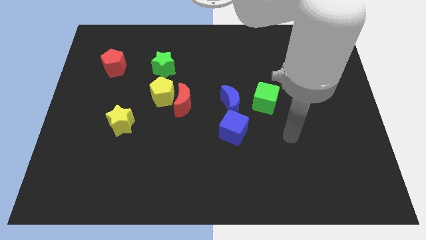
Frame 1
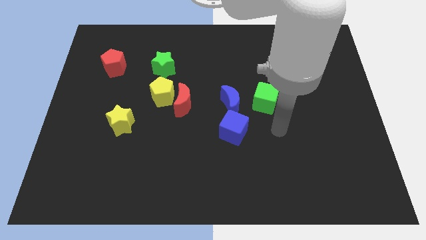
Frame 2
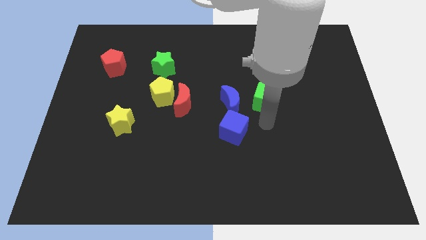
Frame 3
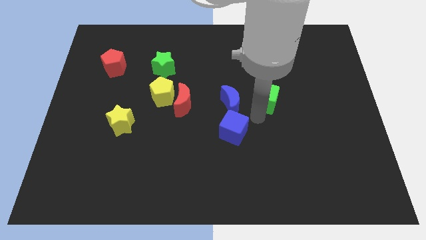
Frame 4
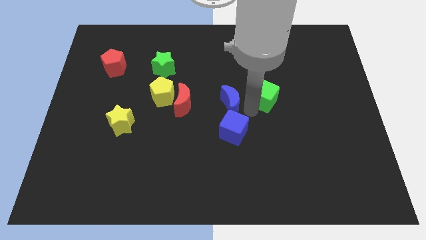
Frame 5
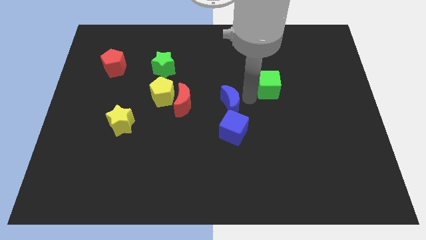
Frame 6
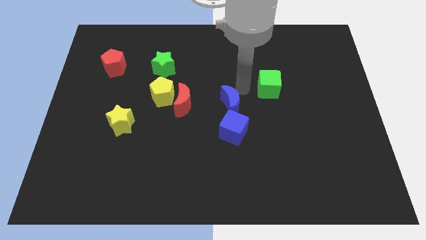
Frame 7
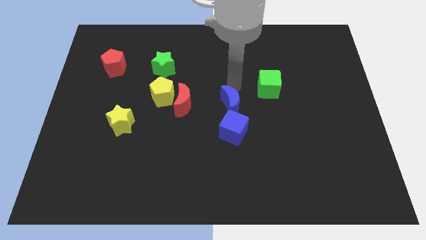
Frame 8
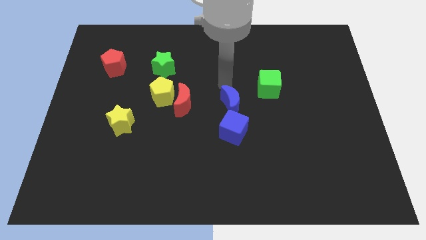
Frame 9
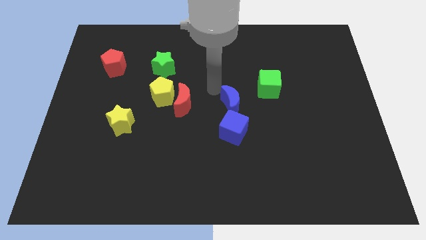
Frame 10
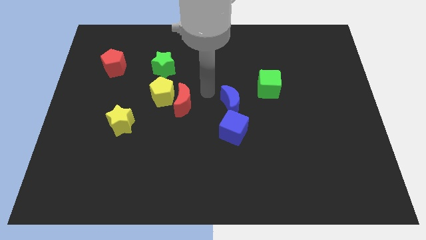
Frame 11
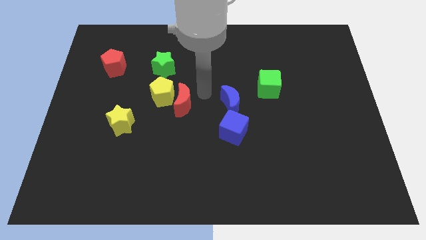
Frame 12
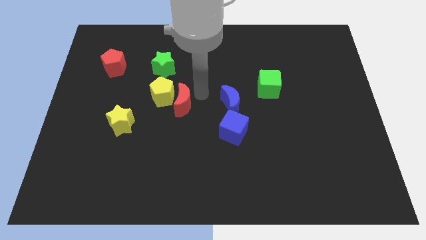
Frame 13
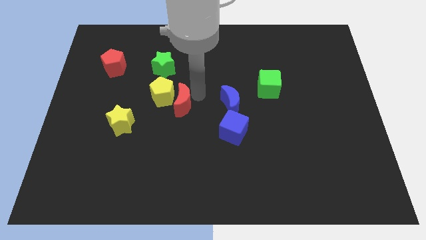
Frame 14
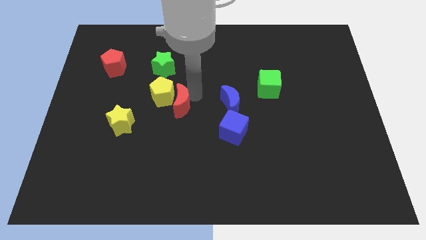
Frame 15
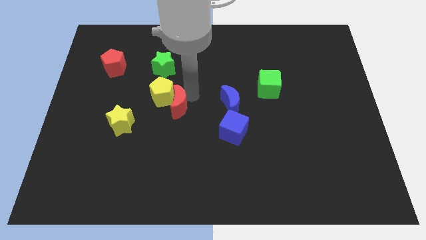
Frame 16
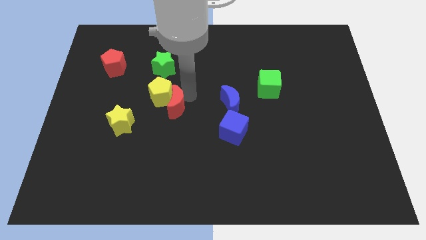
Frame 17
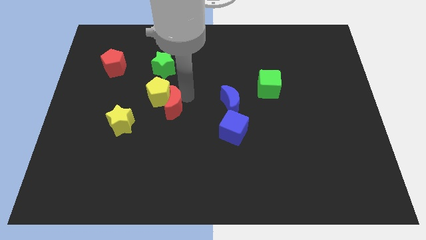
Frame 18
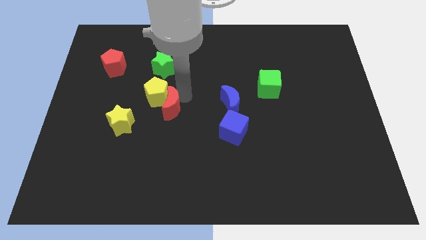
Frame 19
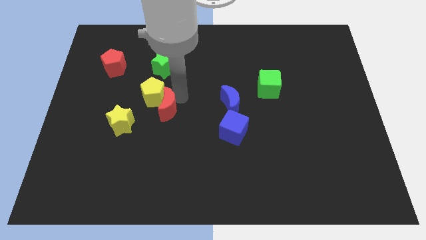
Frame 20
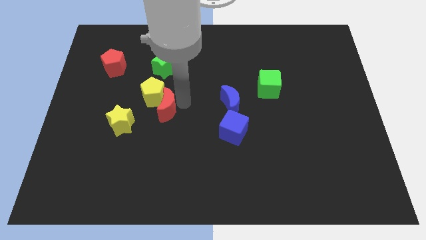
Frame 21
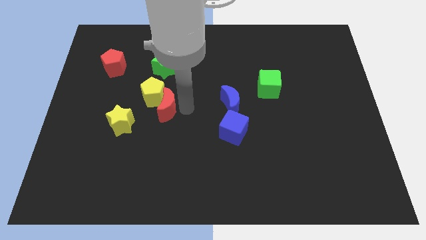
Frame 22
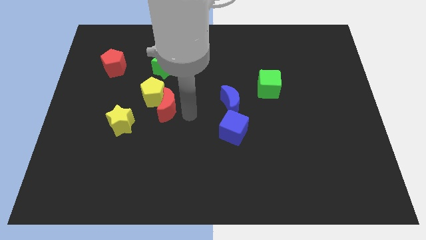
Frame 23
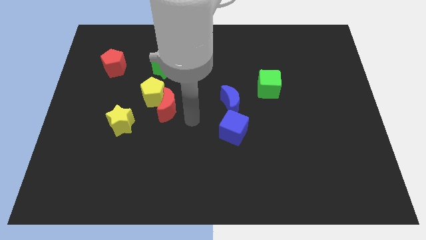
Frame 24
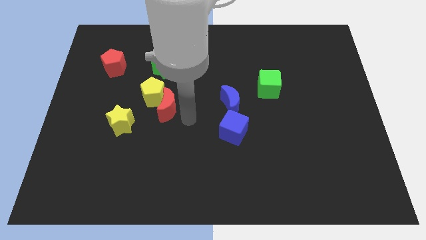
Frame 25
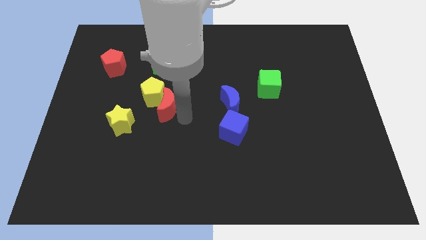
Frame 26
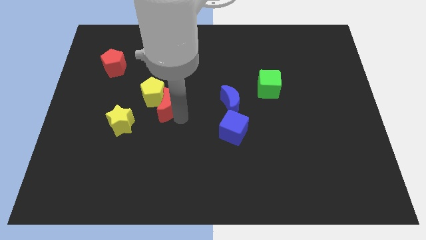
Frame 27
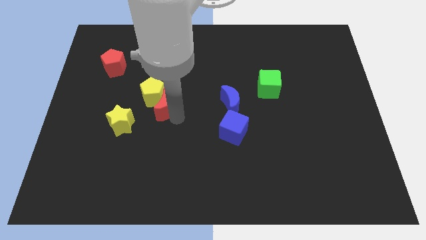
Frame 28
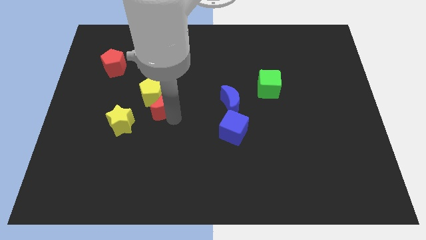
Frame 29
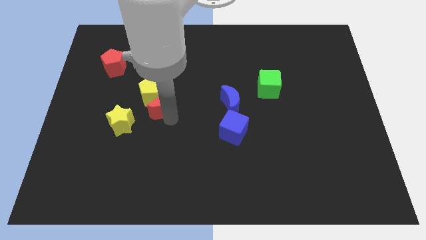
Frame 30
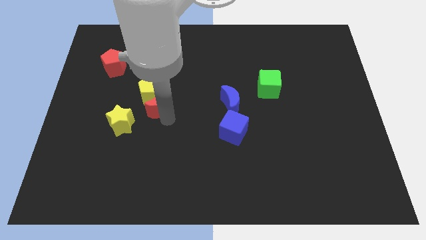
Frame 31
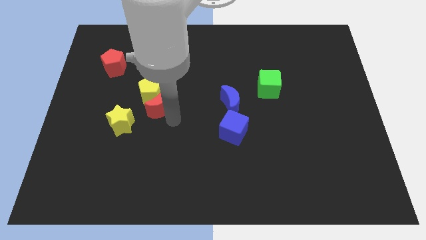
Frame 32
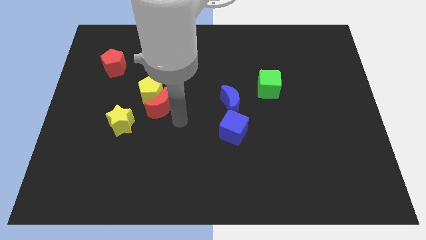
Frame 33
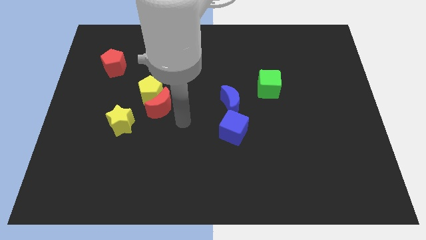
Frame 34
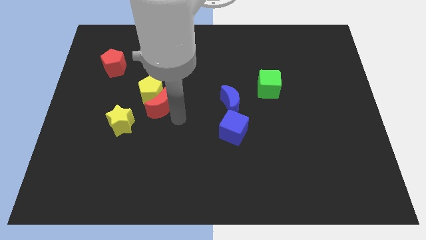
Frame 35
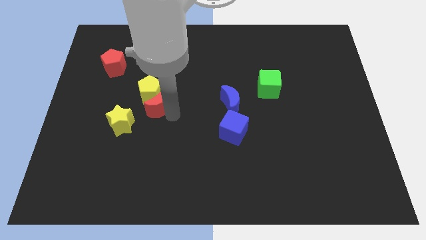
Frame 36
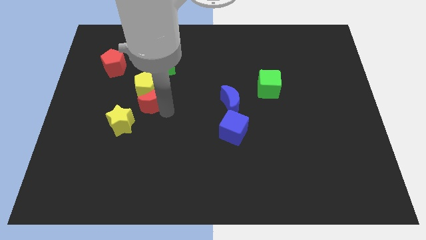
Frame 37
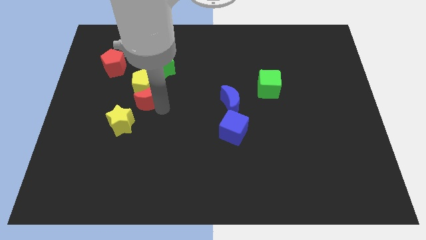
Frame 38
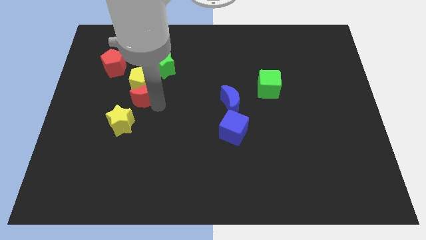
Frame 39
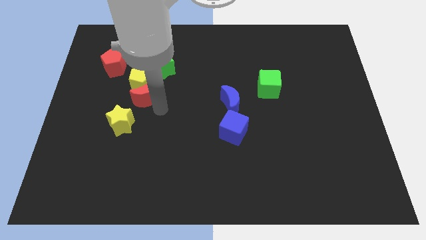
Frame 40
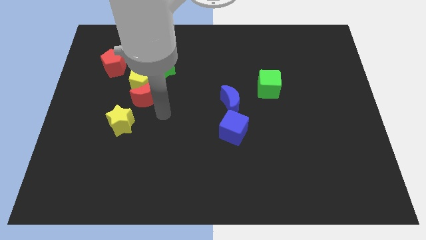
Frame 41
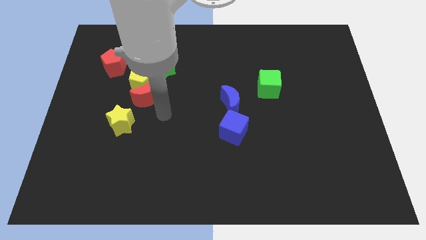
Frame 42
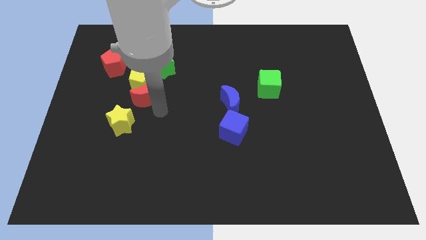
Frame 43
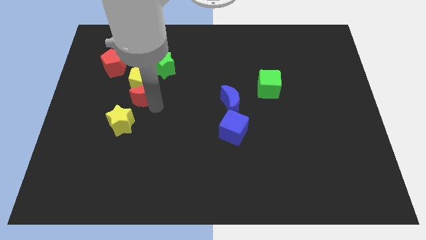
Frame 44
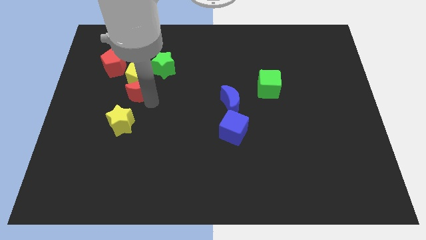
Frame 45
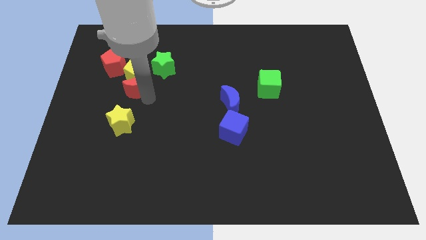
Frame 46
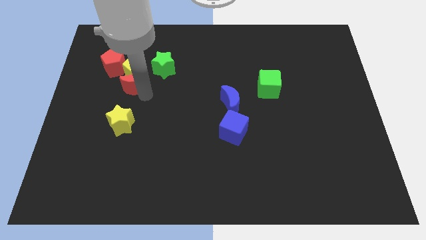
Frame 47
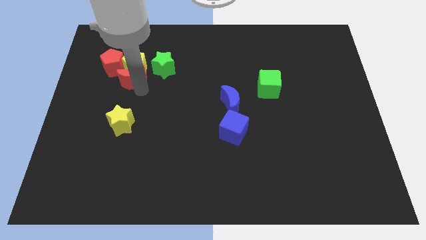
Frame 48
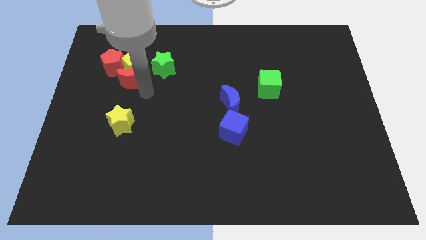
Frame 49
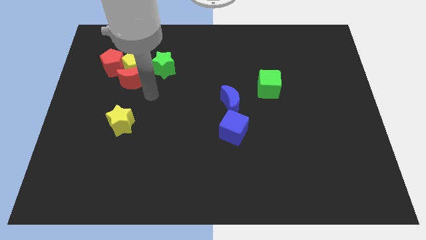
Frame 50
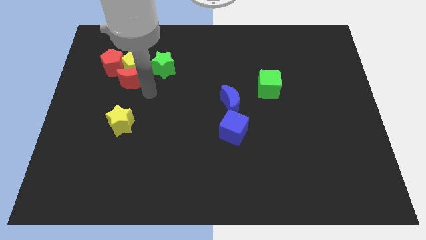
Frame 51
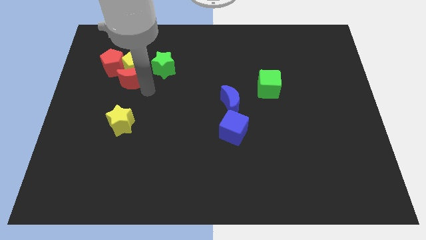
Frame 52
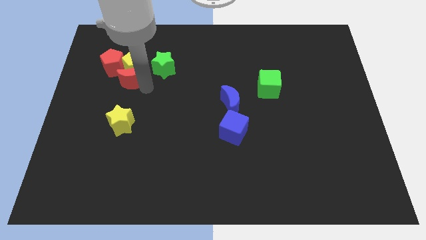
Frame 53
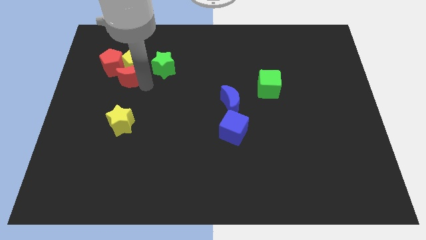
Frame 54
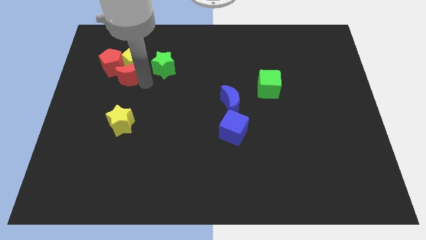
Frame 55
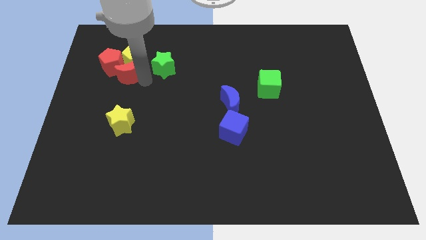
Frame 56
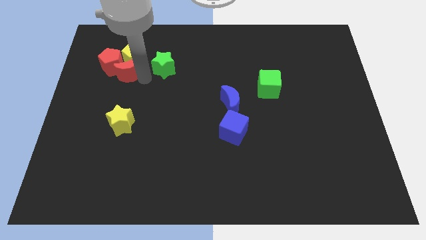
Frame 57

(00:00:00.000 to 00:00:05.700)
move the red moon to the red pentagon

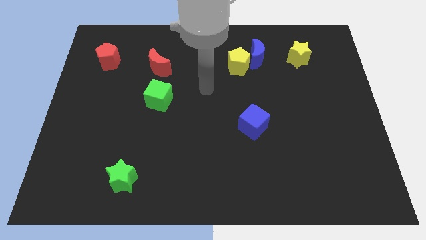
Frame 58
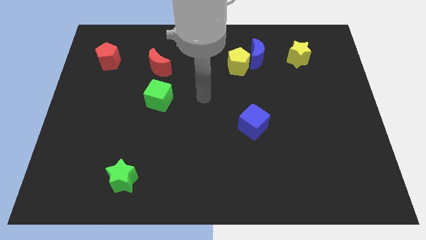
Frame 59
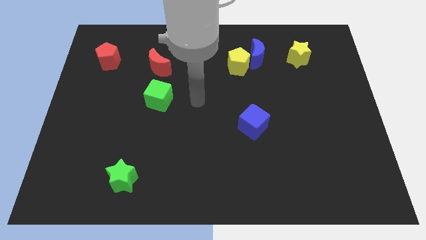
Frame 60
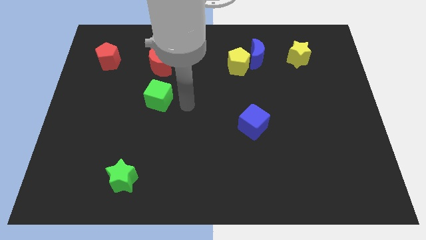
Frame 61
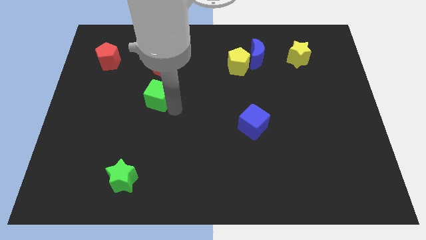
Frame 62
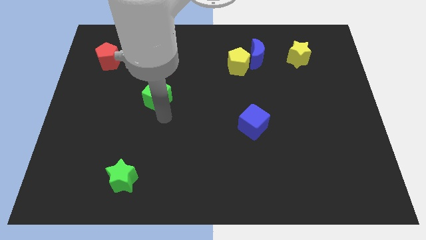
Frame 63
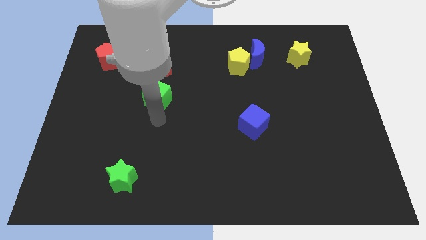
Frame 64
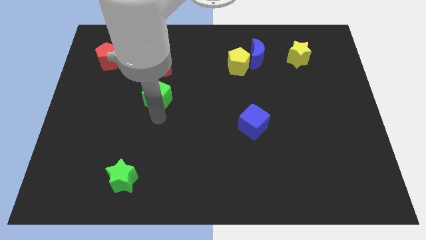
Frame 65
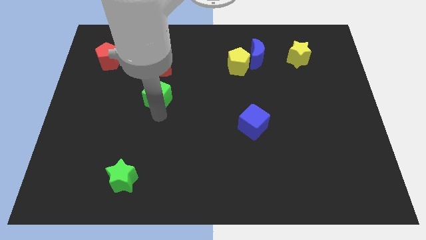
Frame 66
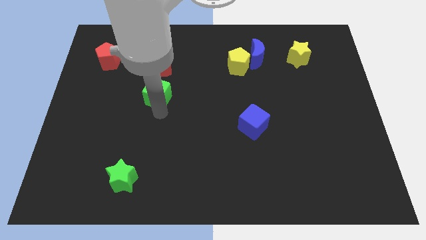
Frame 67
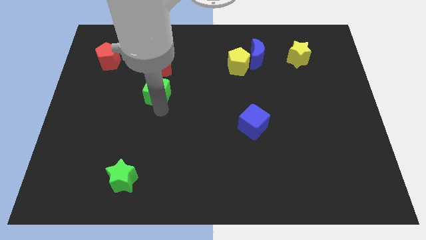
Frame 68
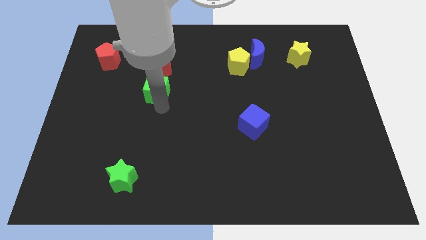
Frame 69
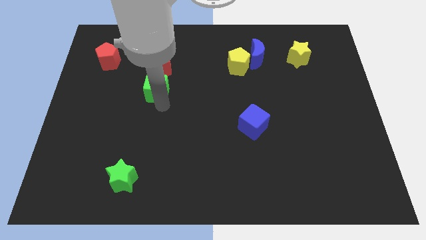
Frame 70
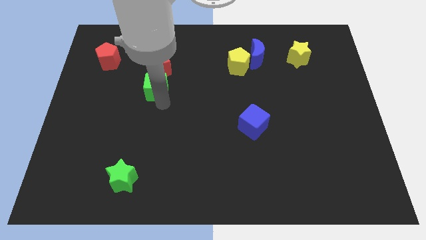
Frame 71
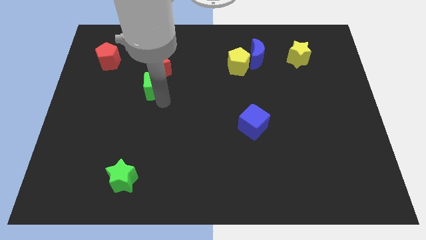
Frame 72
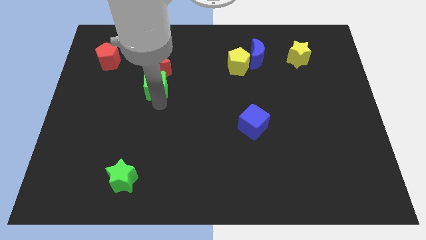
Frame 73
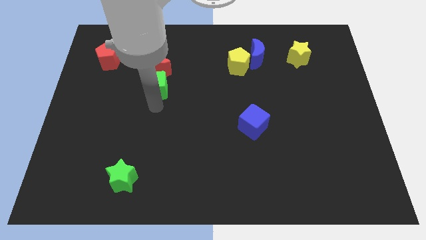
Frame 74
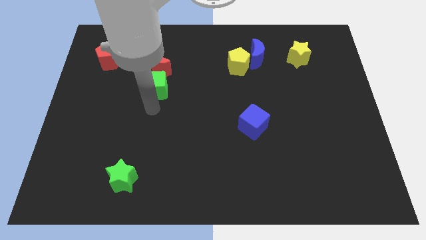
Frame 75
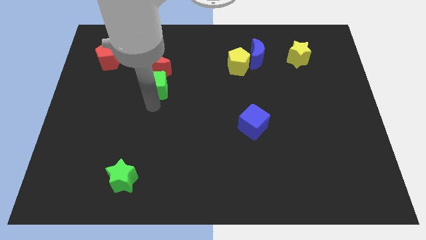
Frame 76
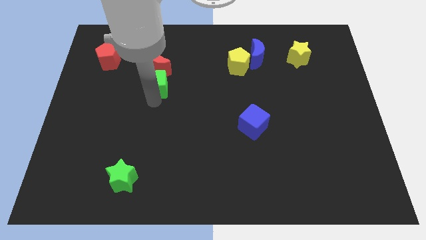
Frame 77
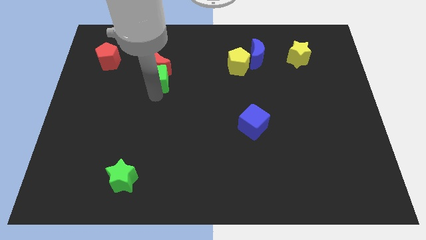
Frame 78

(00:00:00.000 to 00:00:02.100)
slide the green cube close to the red moon
